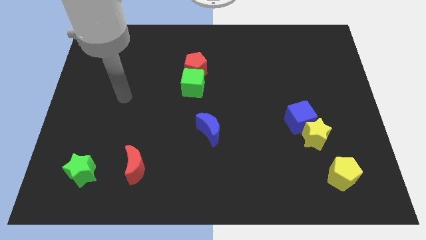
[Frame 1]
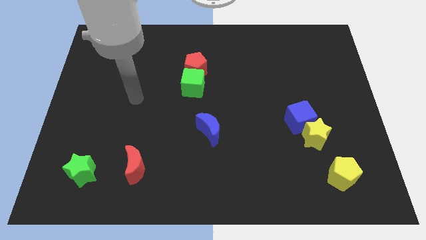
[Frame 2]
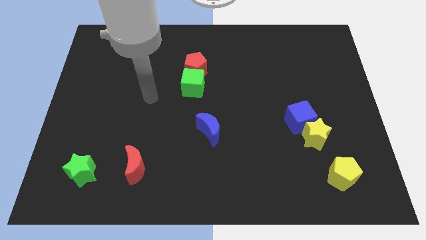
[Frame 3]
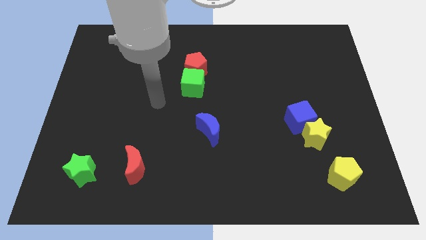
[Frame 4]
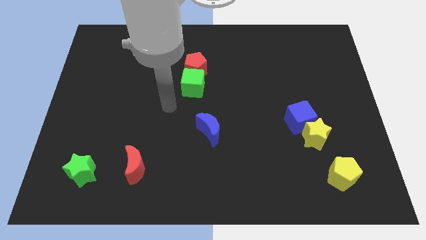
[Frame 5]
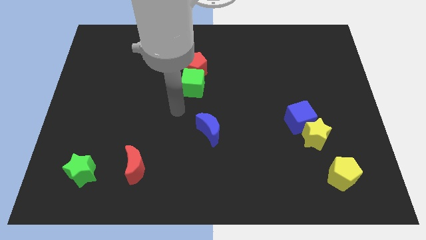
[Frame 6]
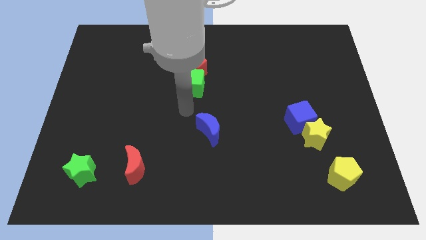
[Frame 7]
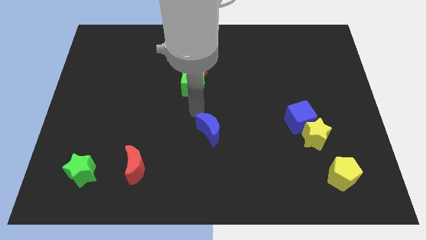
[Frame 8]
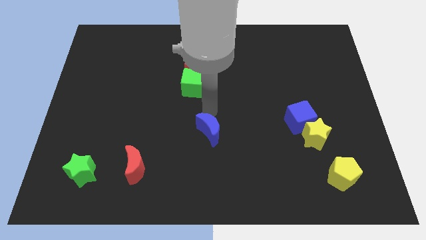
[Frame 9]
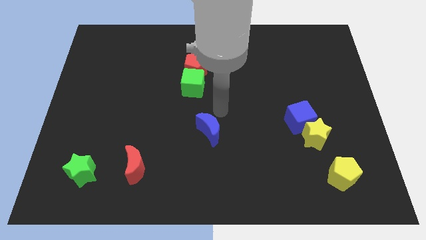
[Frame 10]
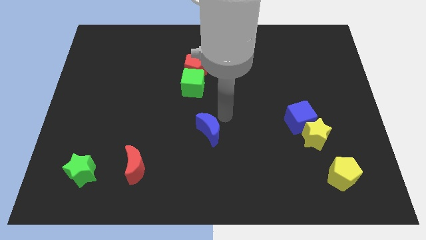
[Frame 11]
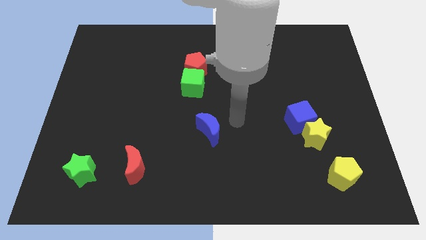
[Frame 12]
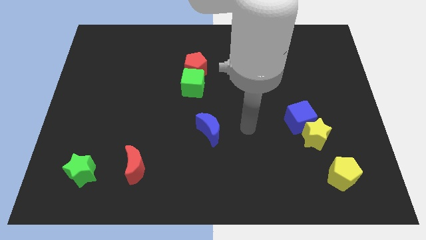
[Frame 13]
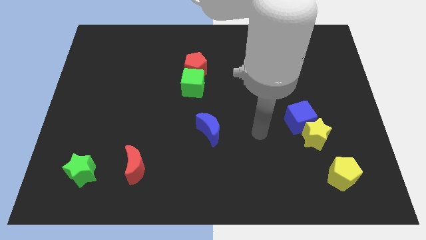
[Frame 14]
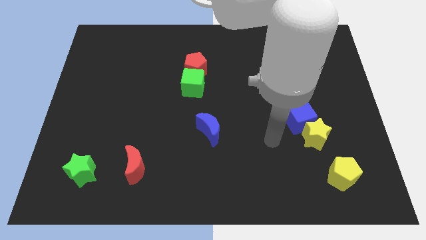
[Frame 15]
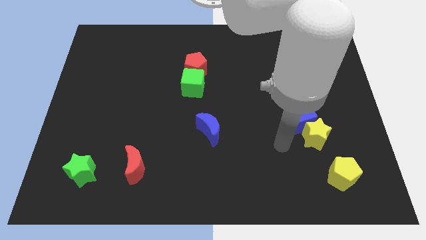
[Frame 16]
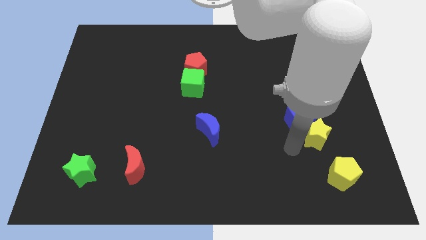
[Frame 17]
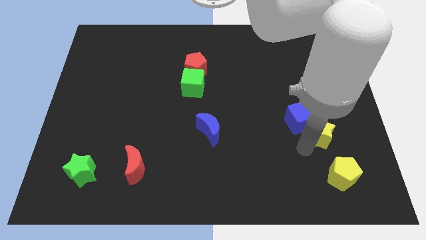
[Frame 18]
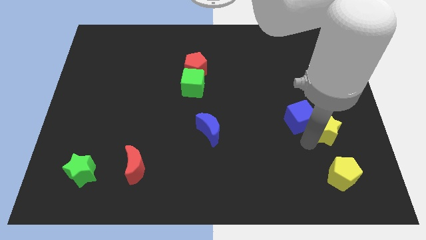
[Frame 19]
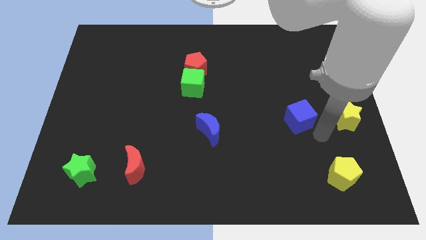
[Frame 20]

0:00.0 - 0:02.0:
separate the blue cube from the yellow star

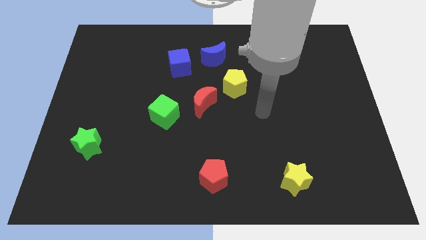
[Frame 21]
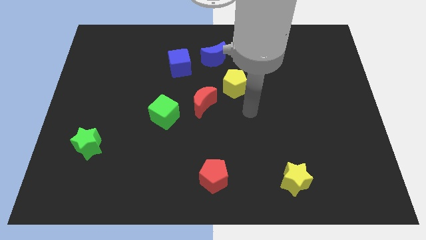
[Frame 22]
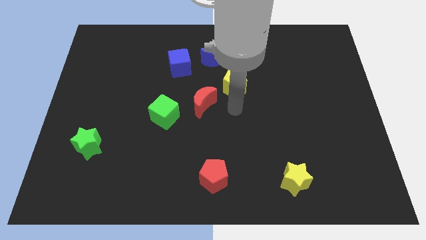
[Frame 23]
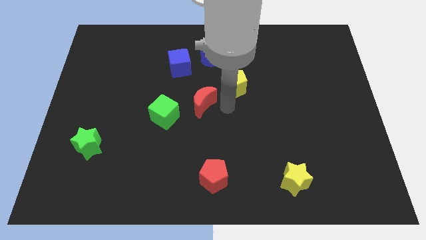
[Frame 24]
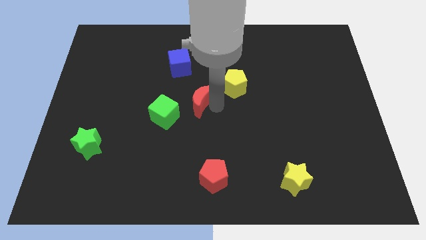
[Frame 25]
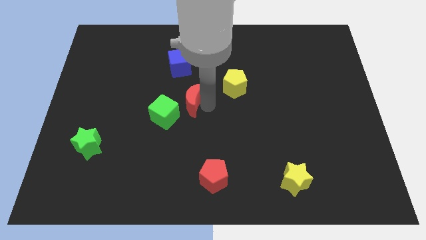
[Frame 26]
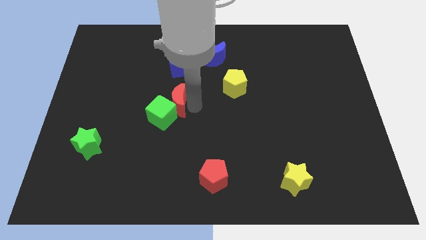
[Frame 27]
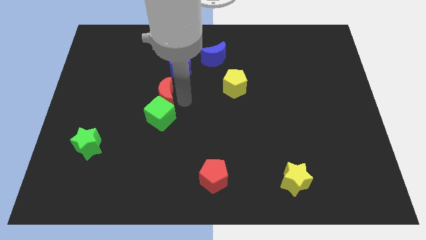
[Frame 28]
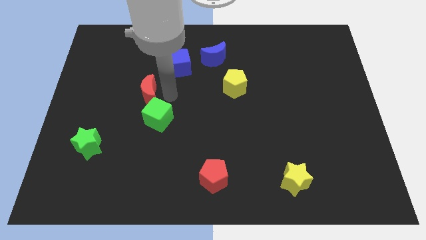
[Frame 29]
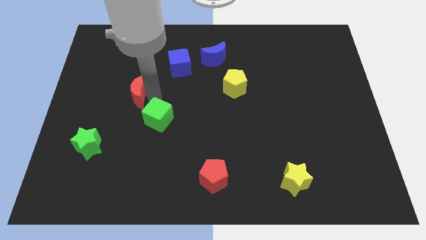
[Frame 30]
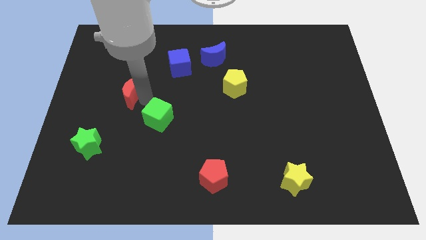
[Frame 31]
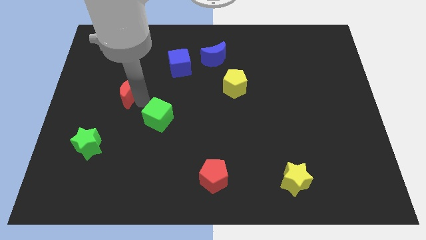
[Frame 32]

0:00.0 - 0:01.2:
separate the green cube from the red moon

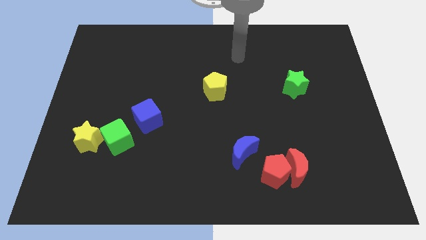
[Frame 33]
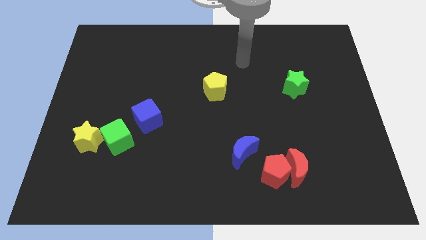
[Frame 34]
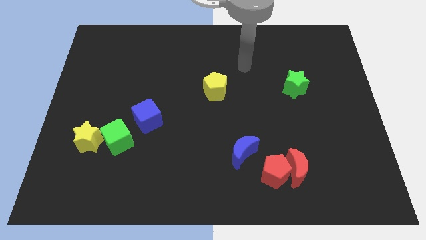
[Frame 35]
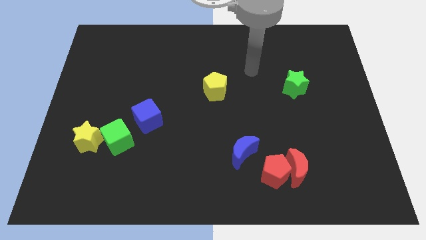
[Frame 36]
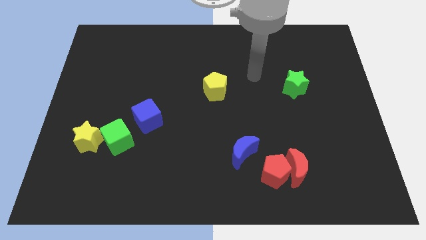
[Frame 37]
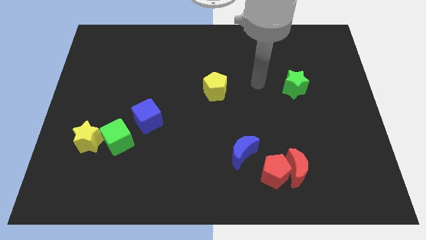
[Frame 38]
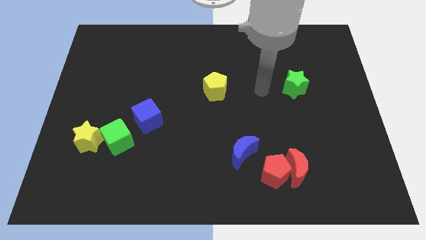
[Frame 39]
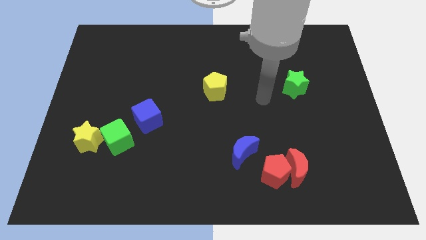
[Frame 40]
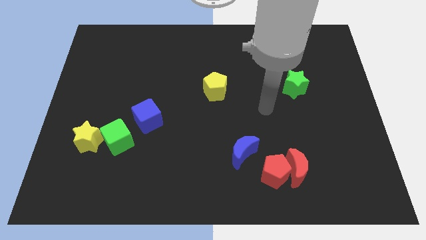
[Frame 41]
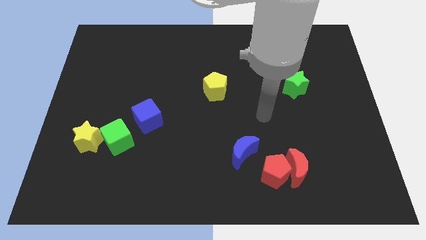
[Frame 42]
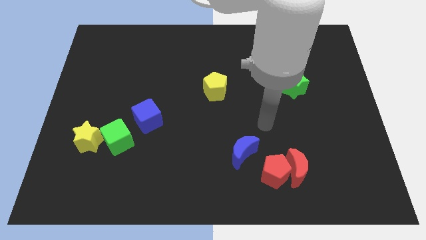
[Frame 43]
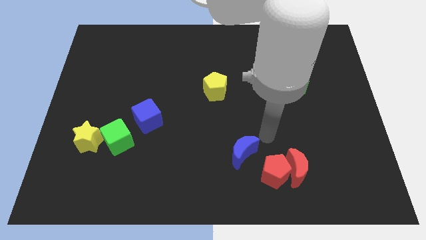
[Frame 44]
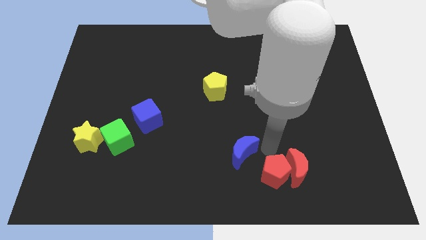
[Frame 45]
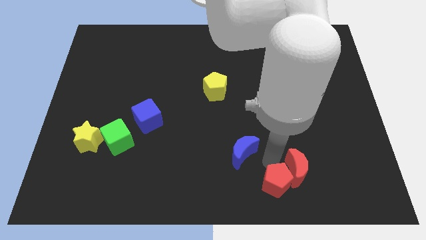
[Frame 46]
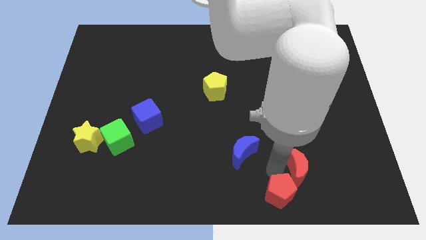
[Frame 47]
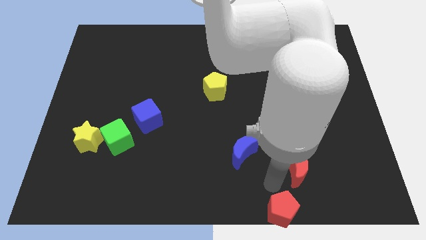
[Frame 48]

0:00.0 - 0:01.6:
pull the red moon apart from the red pentagon

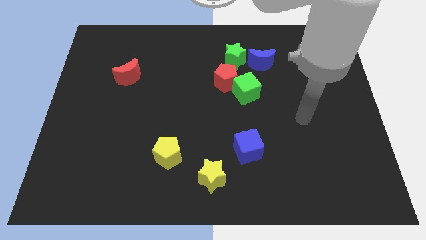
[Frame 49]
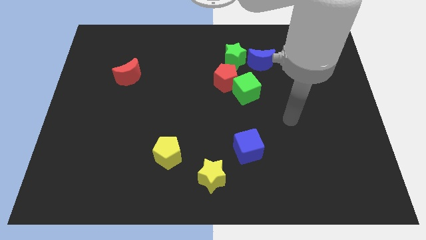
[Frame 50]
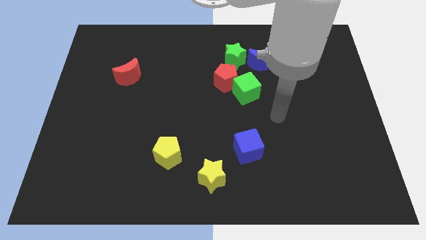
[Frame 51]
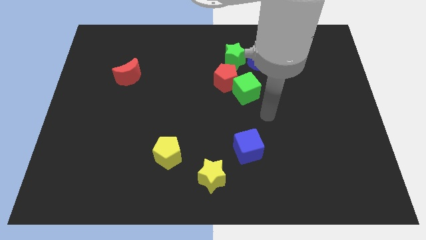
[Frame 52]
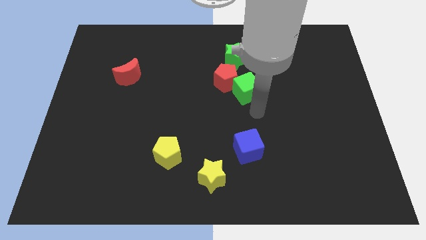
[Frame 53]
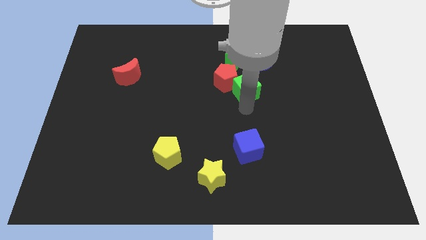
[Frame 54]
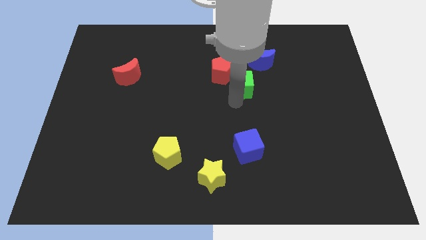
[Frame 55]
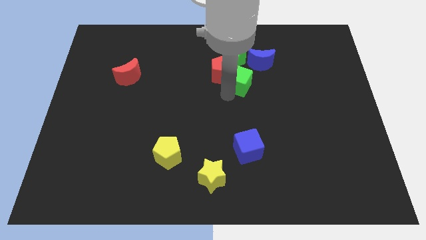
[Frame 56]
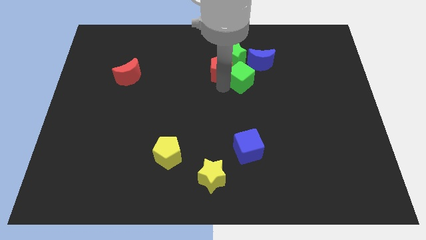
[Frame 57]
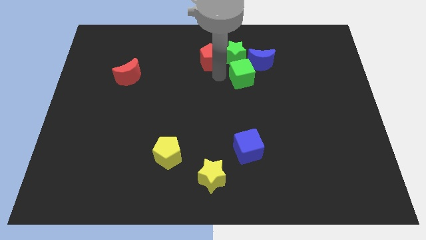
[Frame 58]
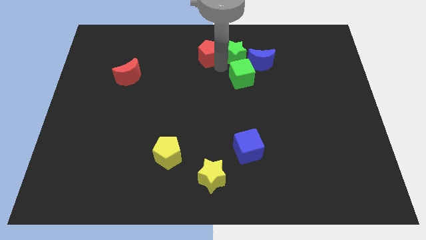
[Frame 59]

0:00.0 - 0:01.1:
move the green cube away from the red pentagon

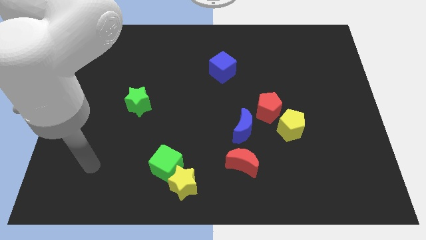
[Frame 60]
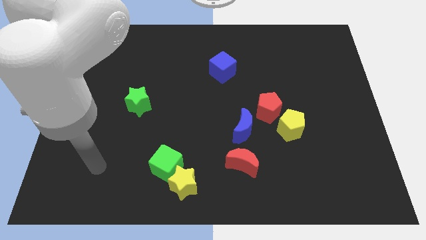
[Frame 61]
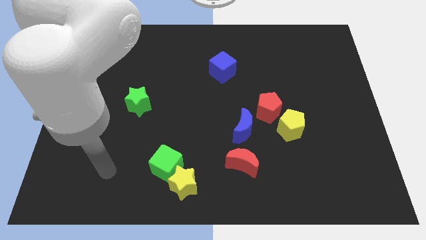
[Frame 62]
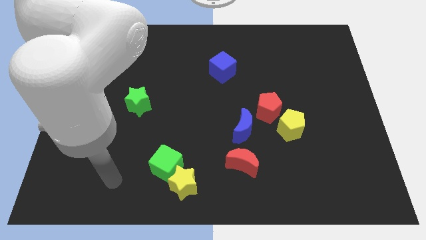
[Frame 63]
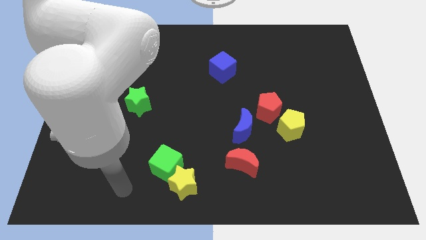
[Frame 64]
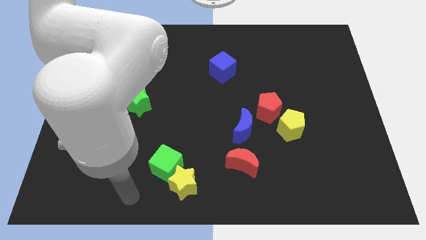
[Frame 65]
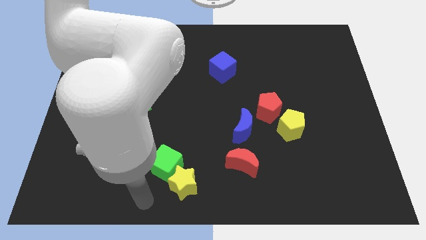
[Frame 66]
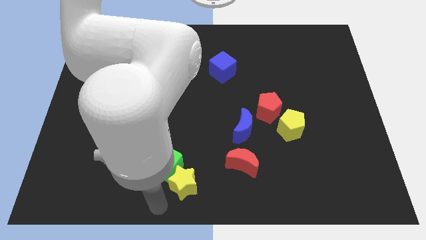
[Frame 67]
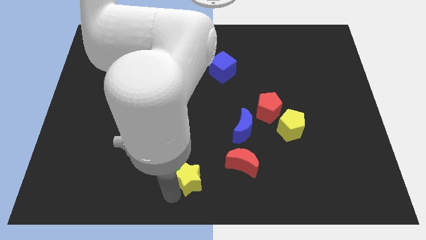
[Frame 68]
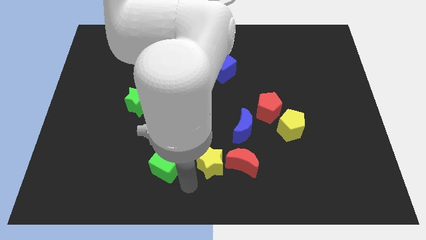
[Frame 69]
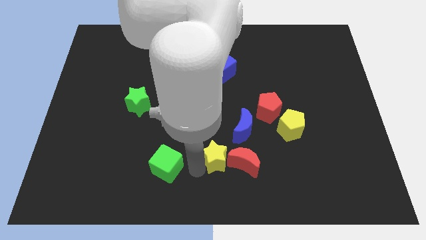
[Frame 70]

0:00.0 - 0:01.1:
separate the green cube from the yellow star

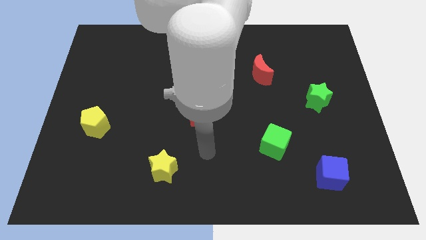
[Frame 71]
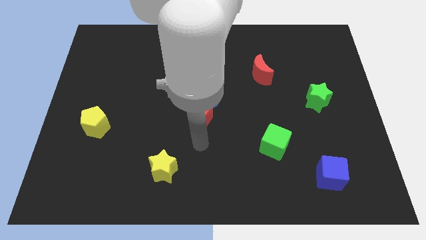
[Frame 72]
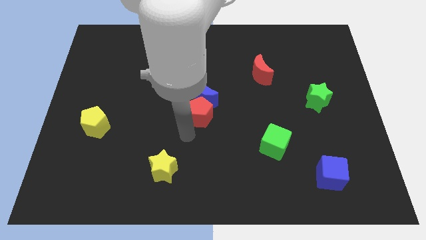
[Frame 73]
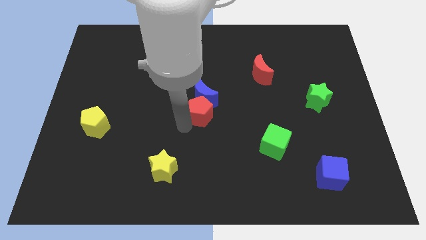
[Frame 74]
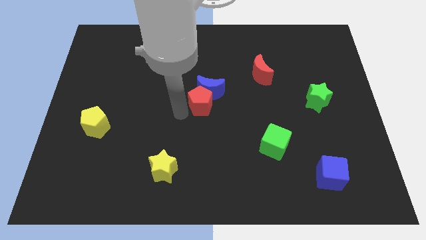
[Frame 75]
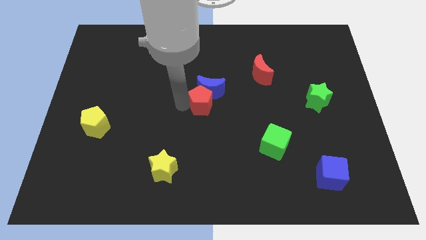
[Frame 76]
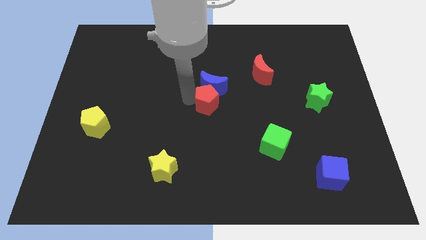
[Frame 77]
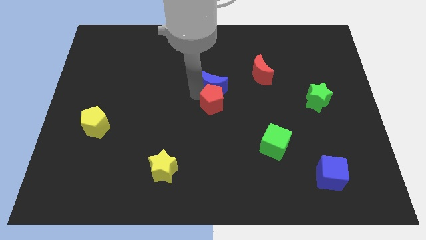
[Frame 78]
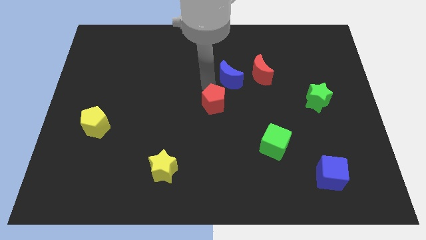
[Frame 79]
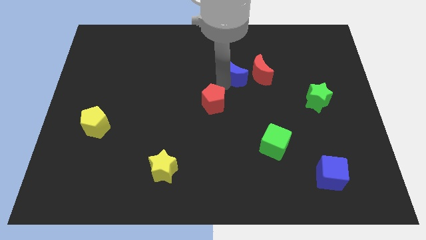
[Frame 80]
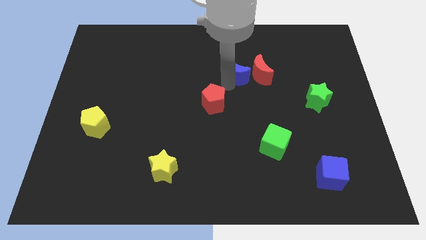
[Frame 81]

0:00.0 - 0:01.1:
move the red pentagon away from the blue moon

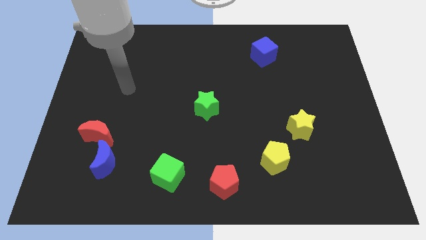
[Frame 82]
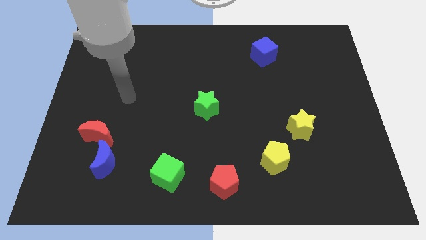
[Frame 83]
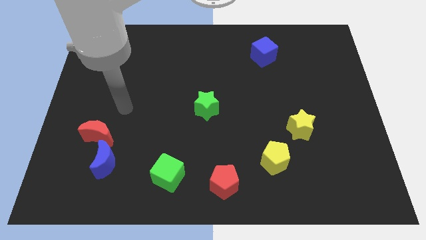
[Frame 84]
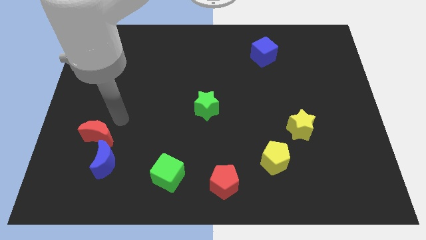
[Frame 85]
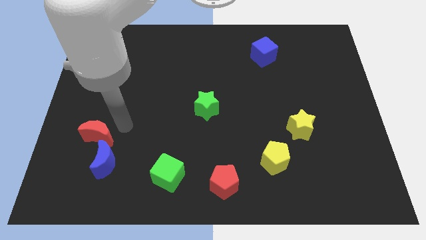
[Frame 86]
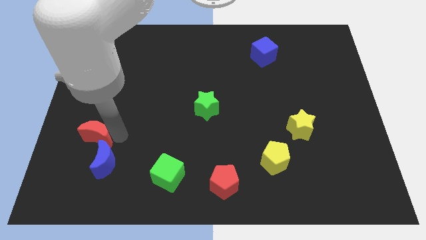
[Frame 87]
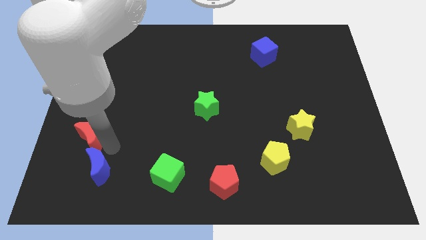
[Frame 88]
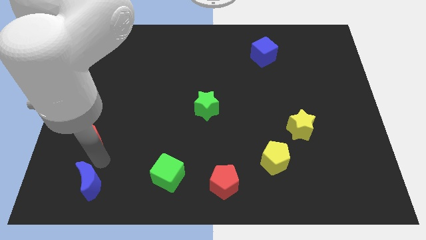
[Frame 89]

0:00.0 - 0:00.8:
separate the red moon from the blue moon

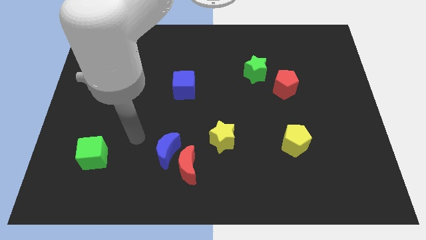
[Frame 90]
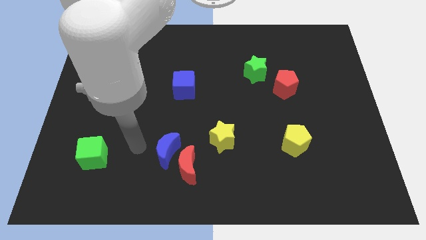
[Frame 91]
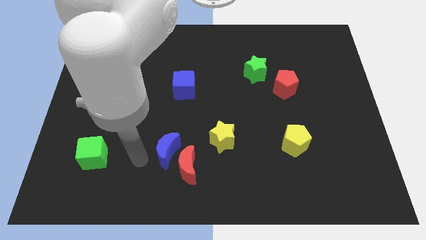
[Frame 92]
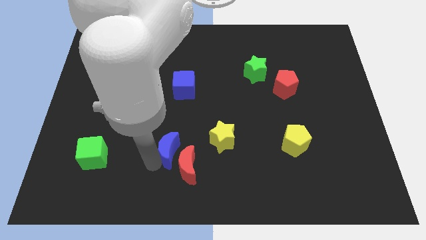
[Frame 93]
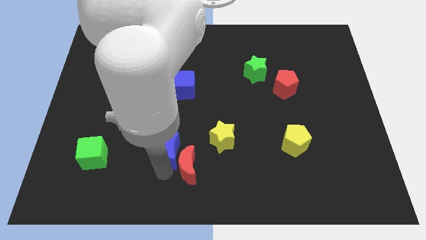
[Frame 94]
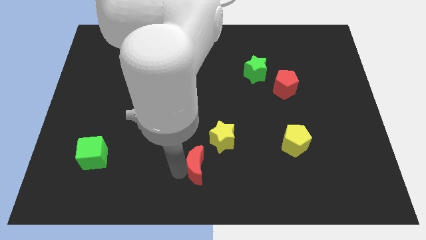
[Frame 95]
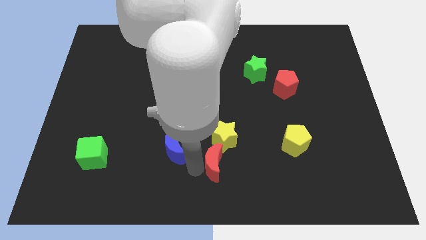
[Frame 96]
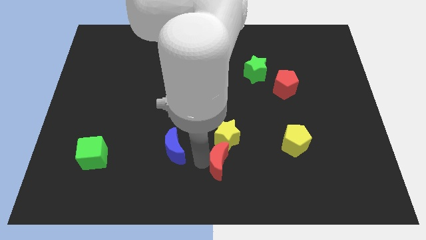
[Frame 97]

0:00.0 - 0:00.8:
separate the blue moon from the red moon
